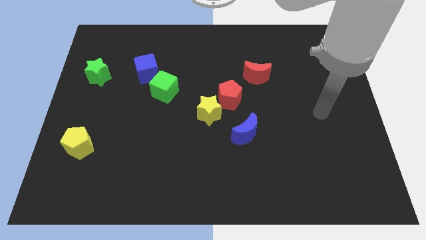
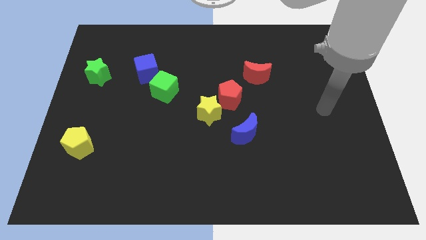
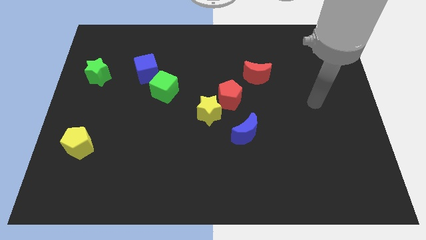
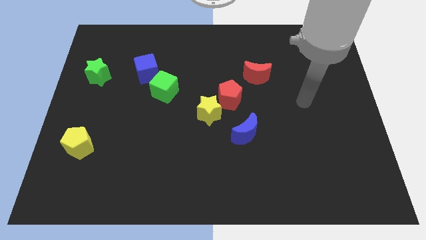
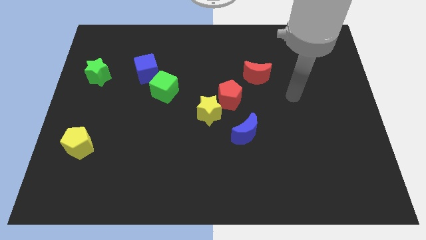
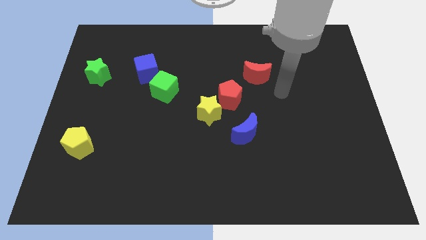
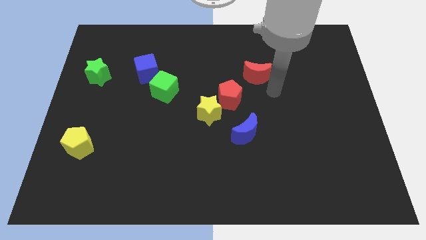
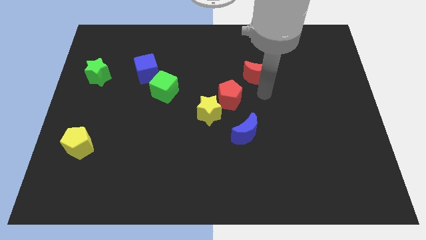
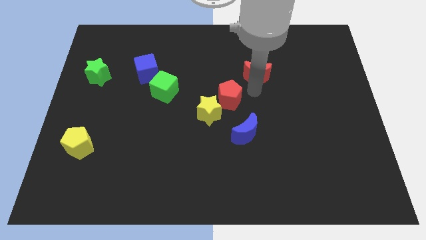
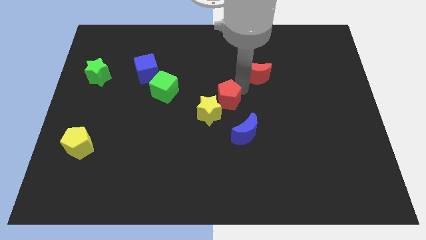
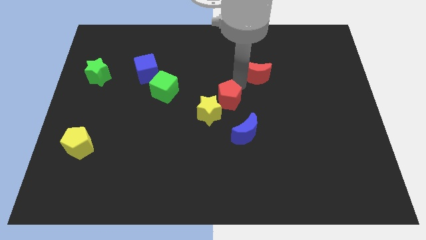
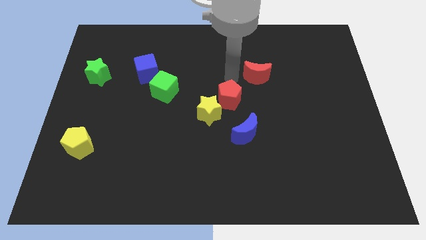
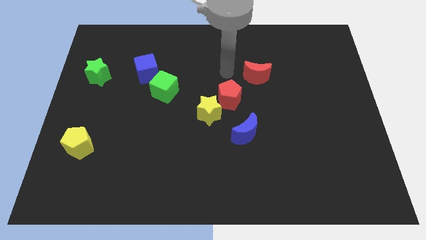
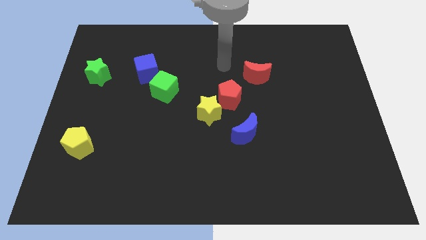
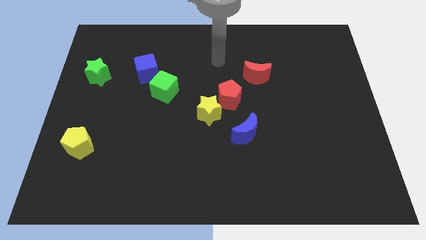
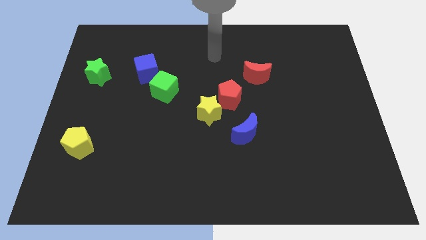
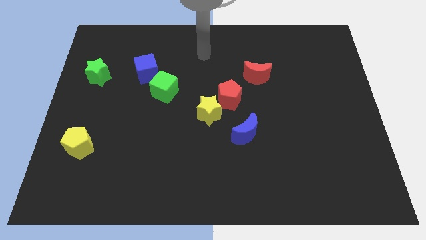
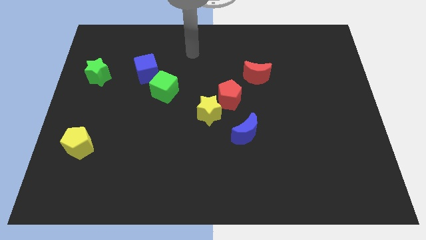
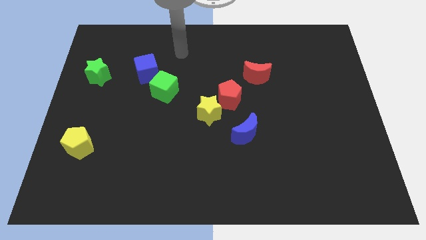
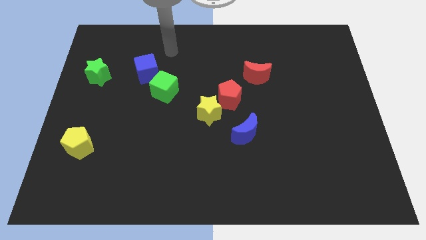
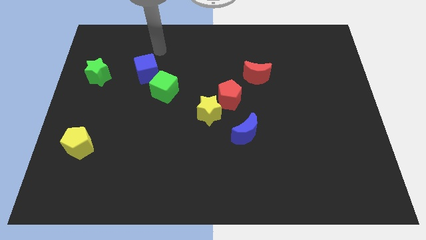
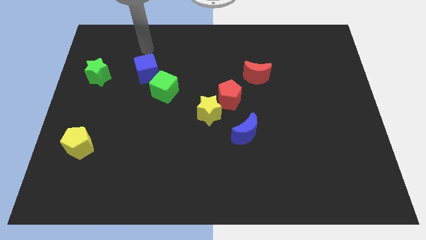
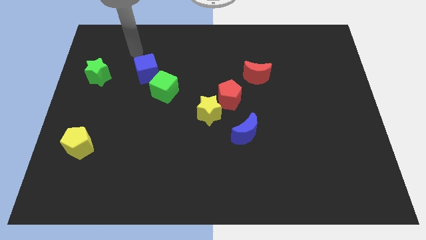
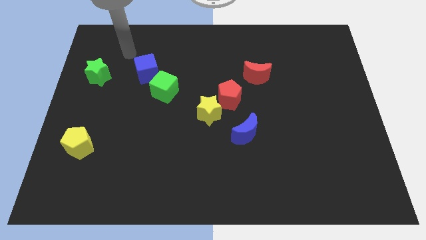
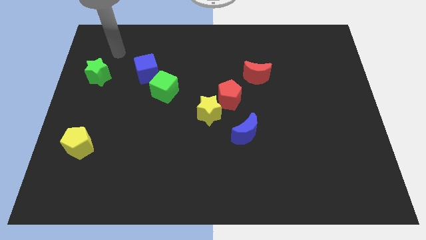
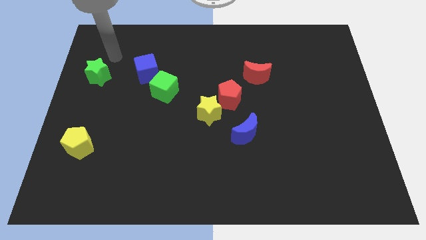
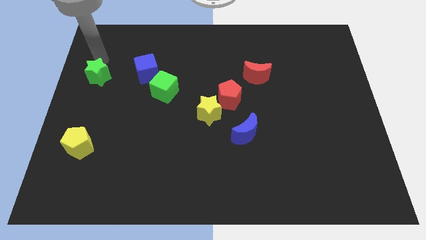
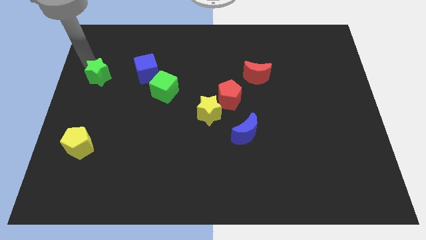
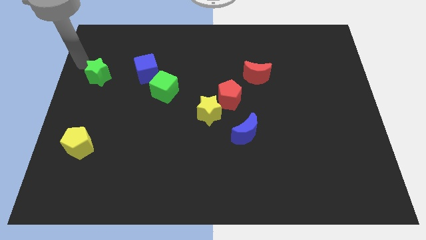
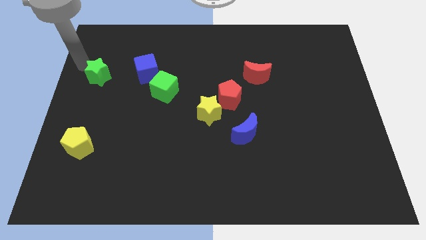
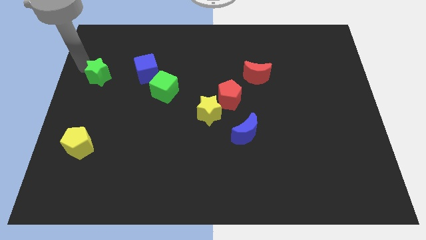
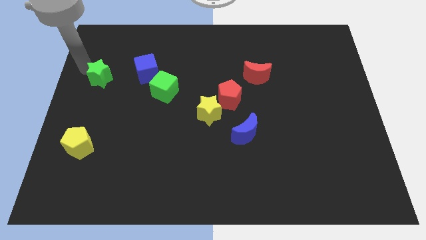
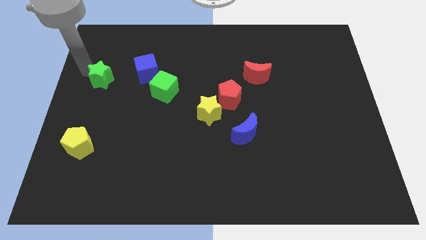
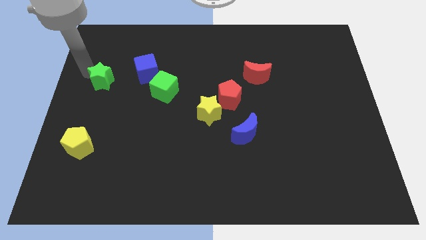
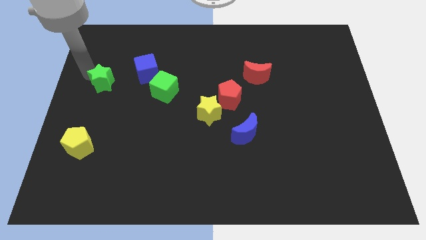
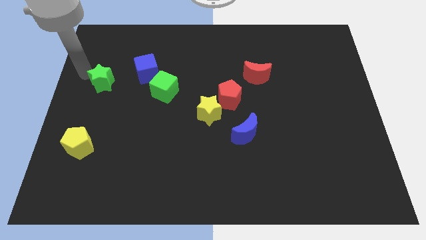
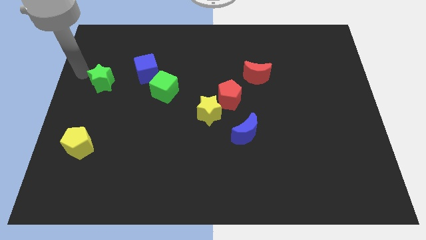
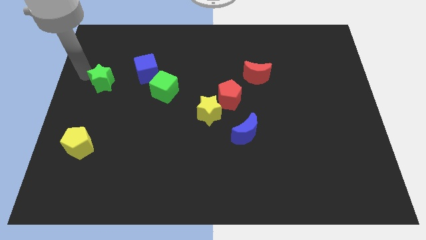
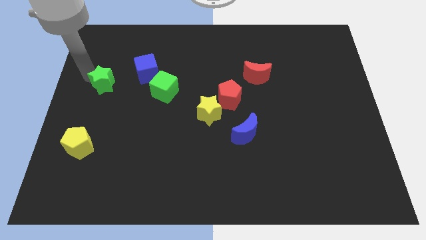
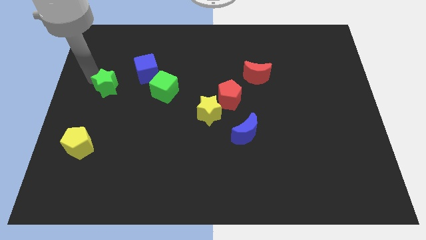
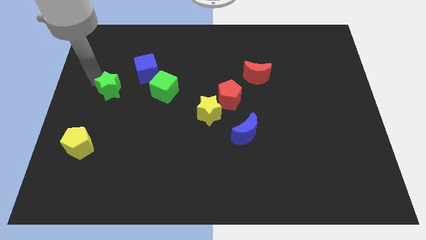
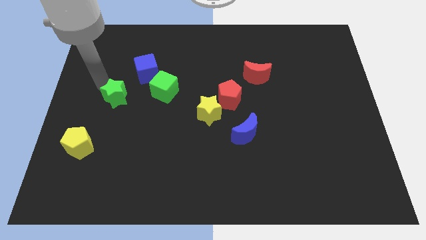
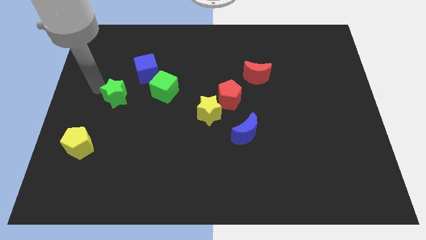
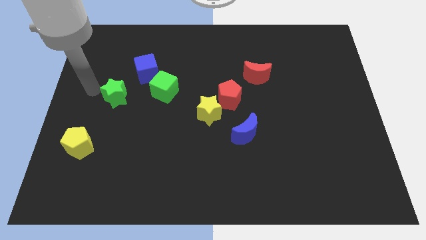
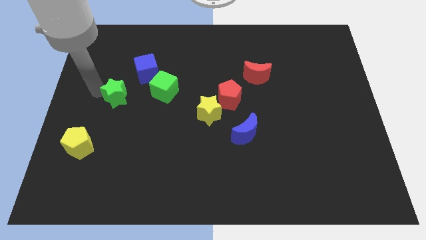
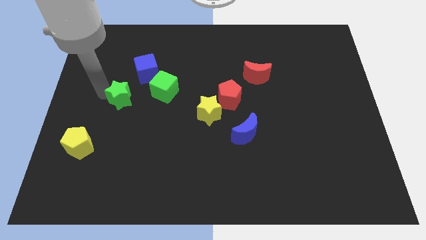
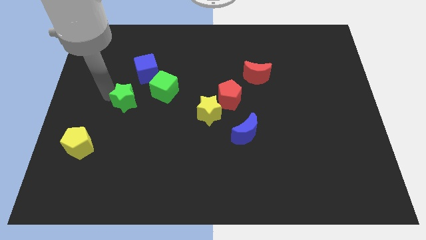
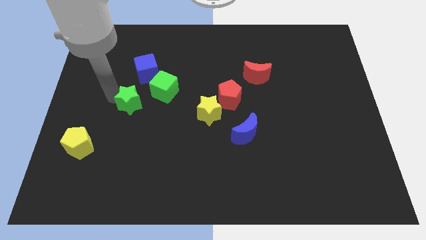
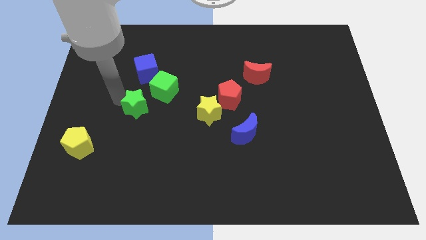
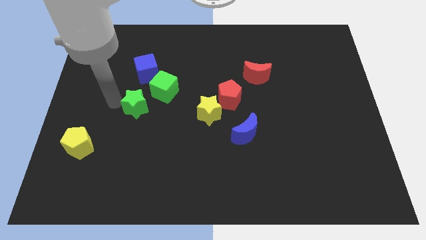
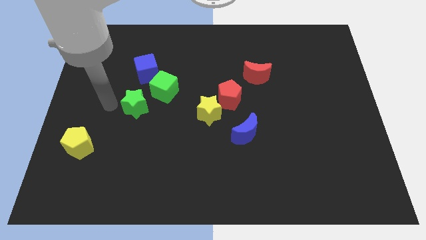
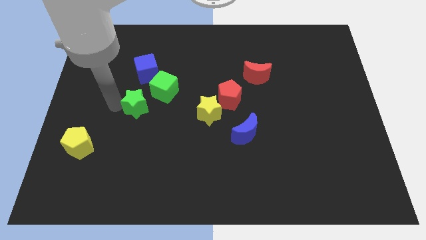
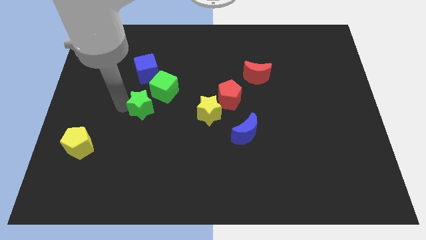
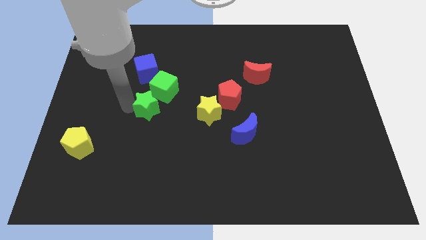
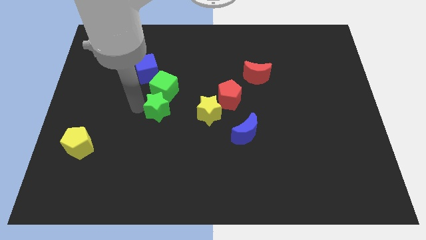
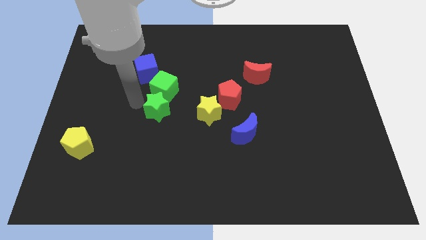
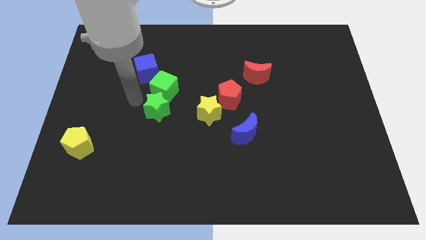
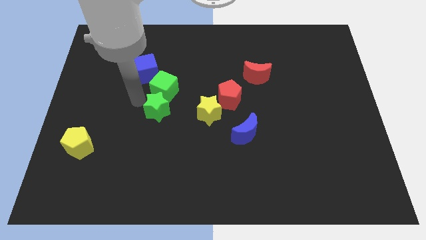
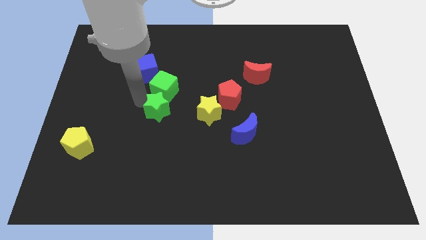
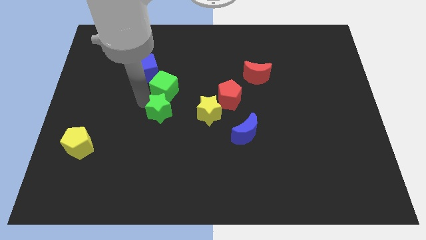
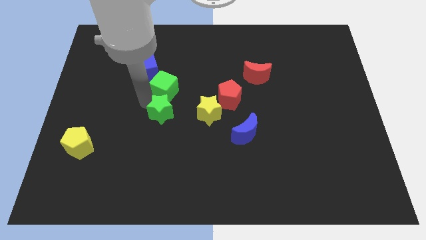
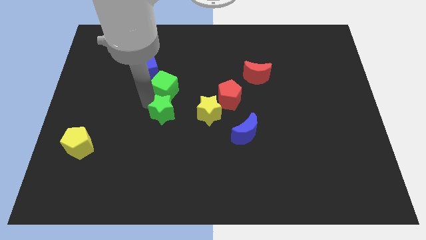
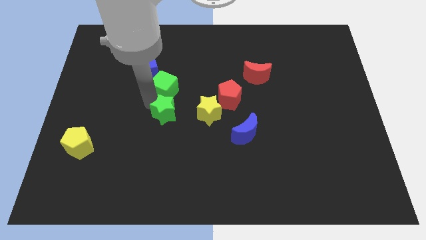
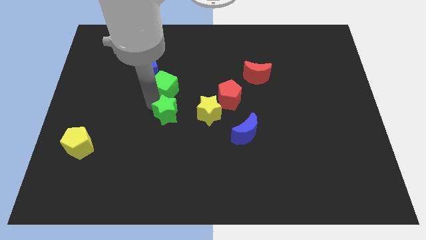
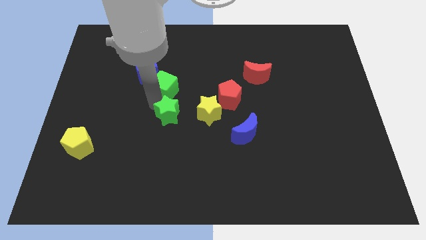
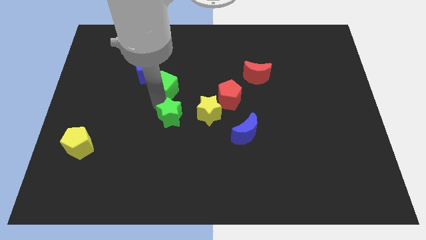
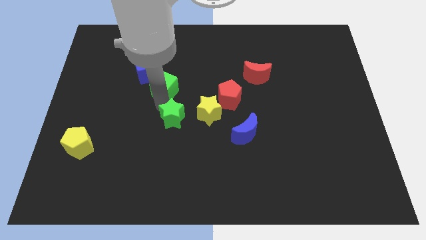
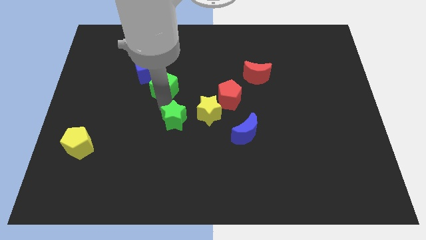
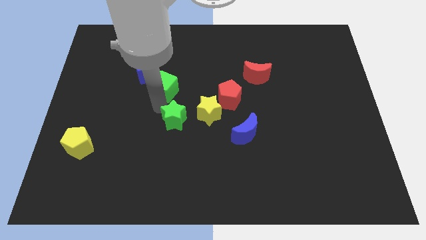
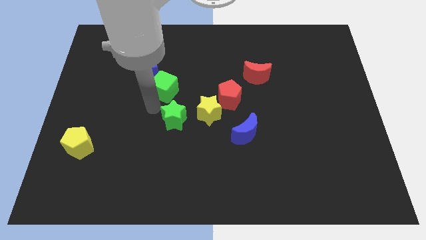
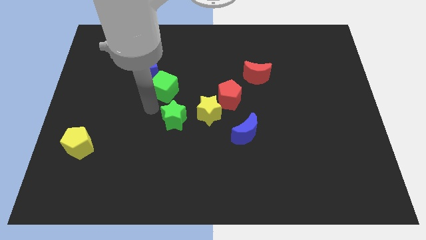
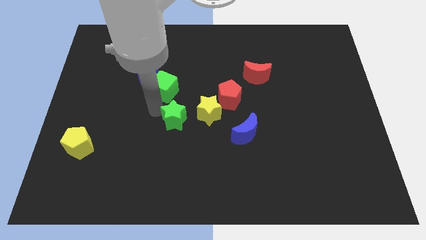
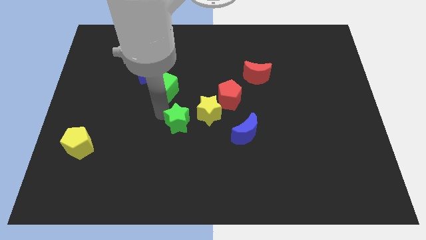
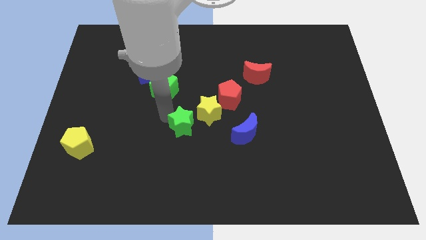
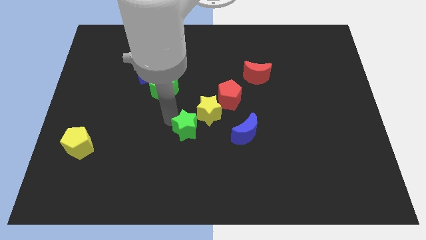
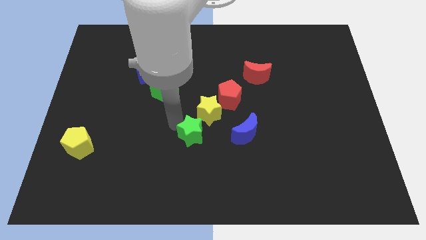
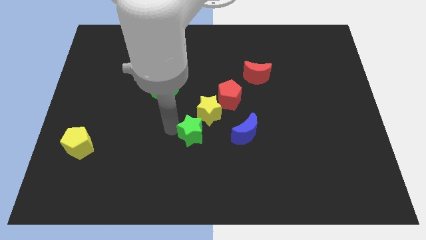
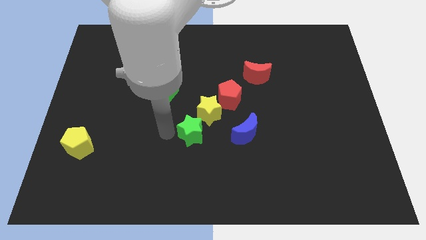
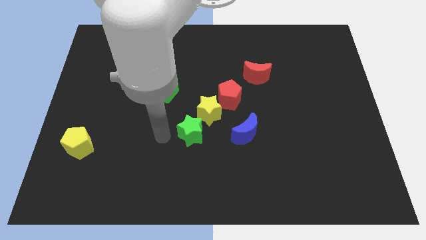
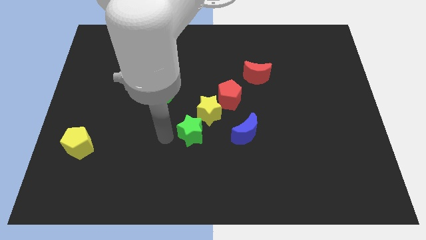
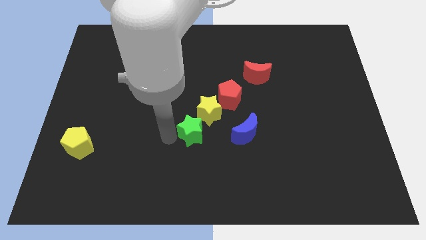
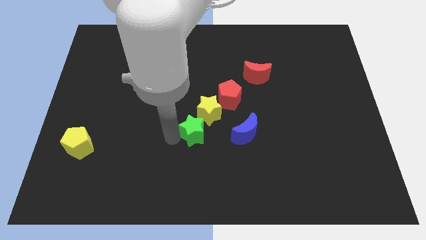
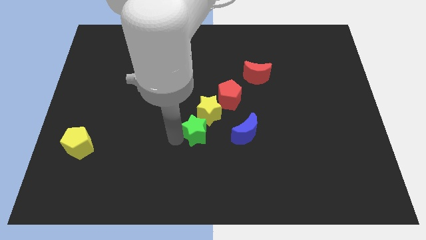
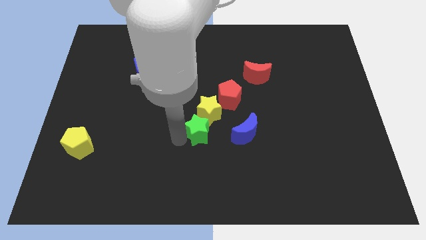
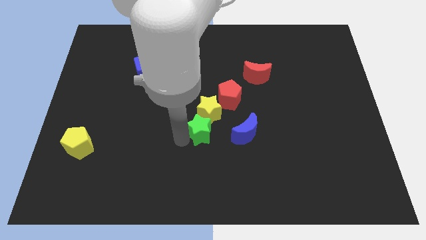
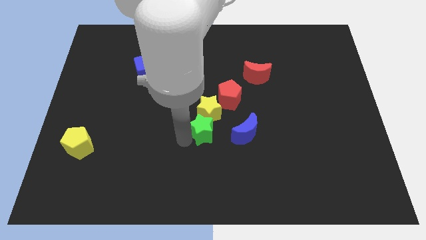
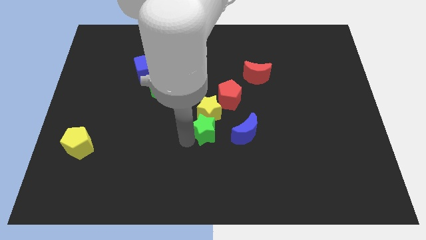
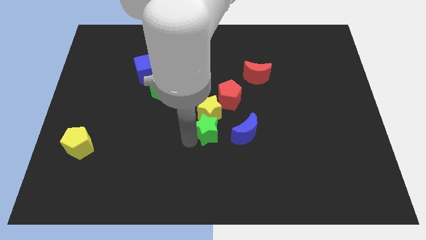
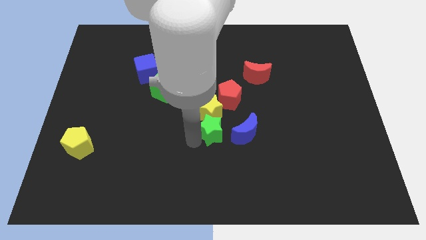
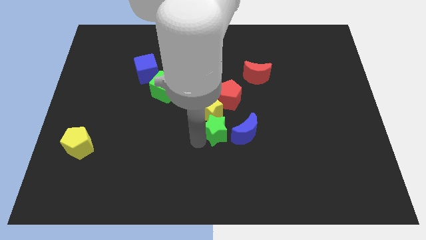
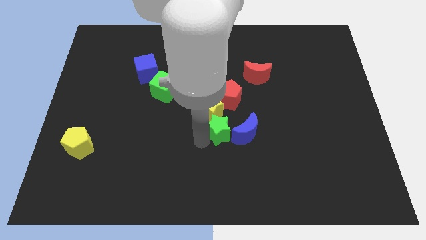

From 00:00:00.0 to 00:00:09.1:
push the green star towards the blue moon
